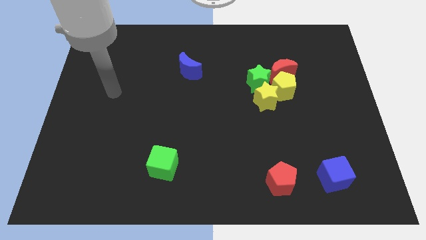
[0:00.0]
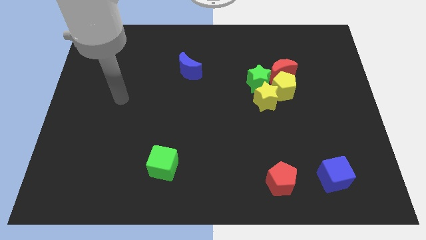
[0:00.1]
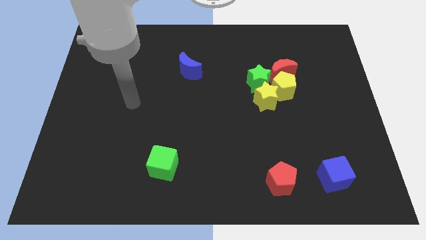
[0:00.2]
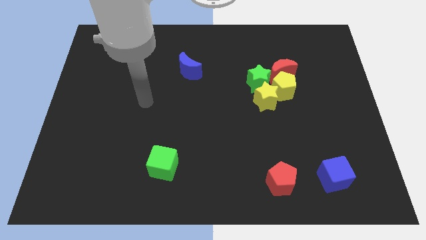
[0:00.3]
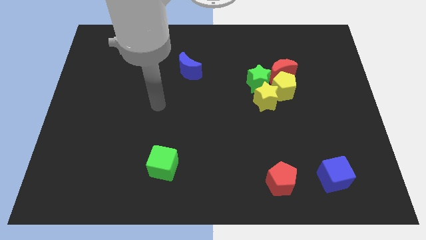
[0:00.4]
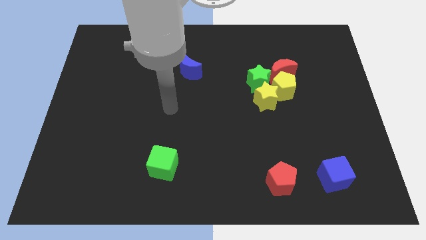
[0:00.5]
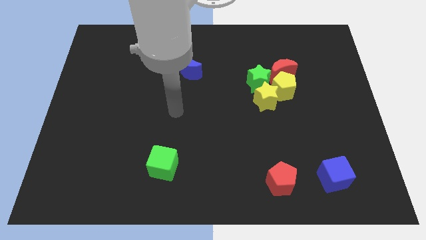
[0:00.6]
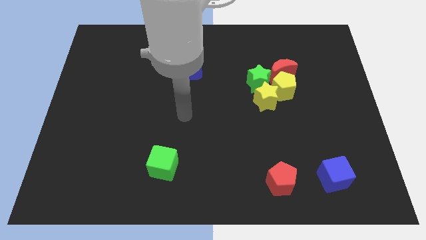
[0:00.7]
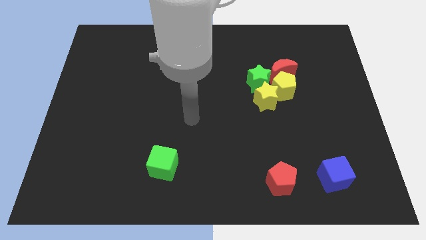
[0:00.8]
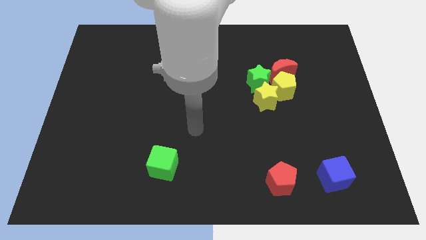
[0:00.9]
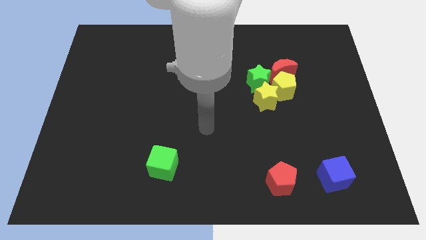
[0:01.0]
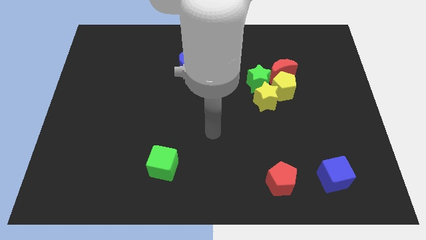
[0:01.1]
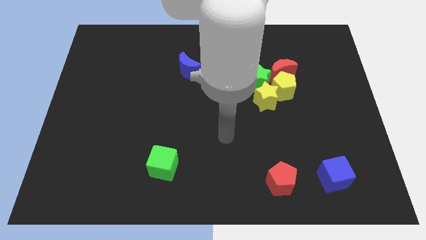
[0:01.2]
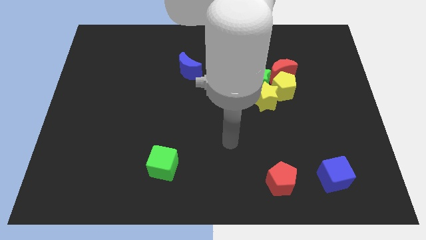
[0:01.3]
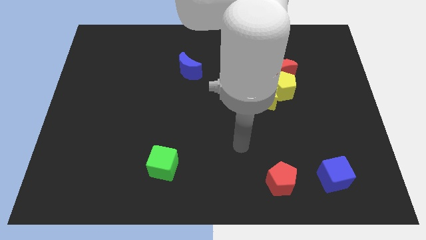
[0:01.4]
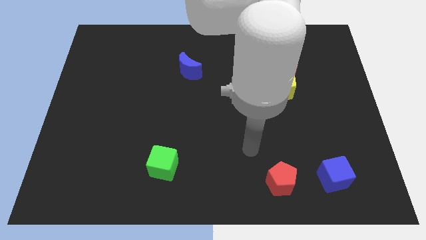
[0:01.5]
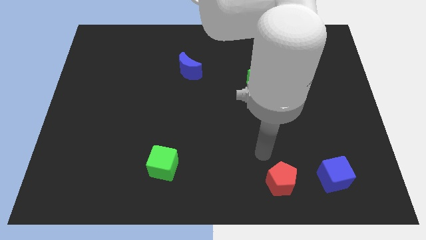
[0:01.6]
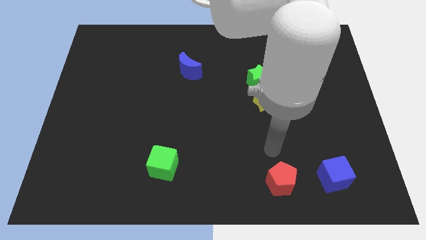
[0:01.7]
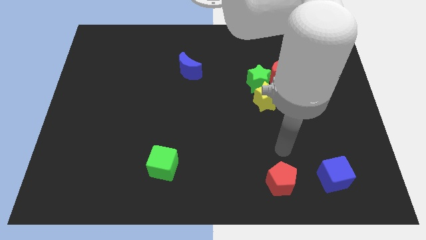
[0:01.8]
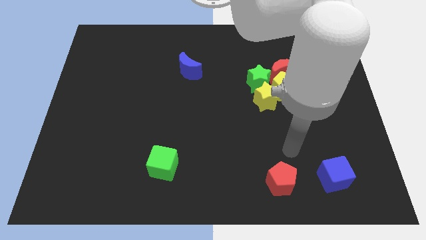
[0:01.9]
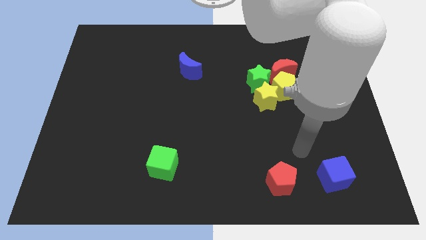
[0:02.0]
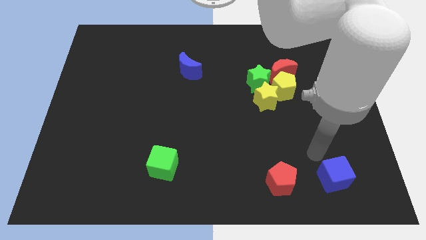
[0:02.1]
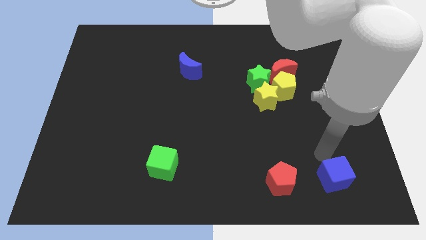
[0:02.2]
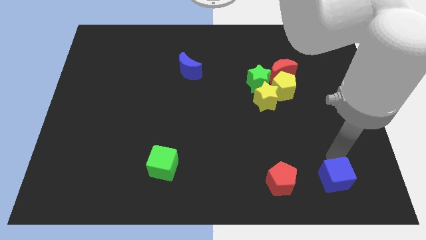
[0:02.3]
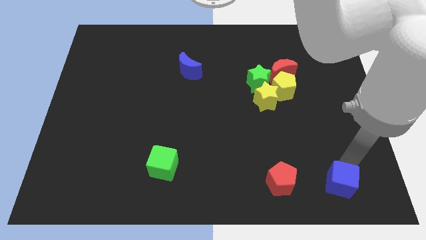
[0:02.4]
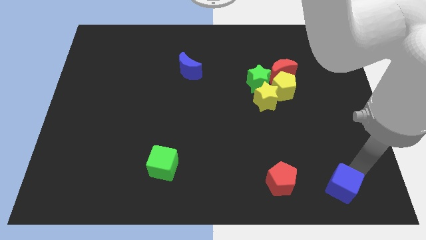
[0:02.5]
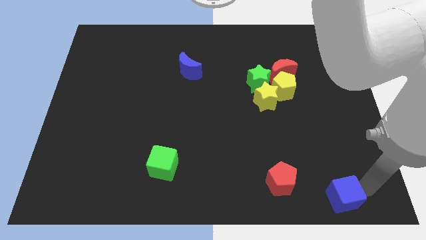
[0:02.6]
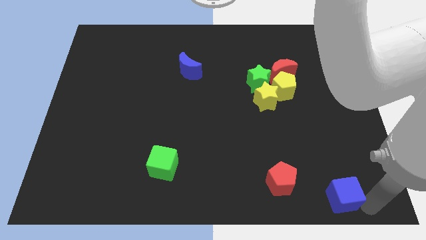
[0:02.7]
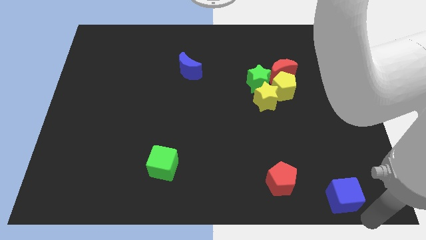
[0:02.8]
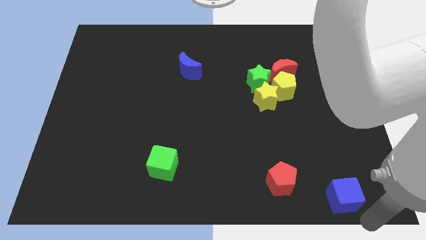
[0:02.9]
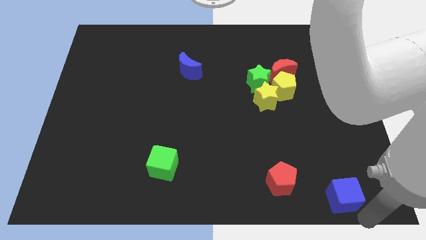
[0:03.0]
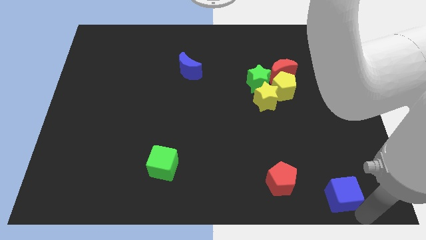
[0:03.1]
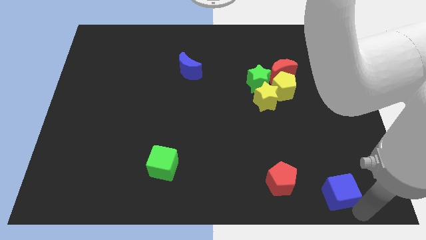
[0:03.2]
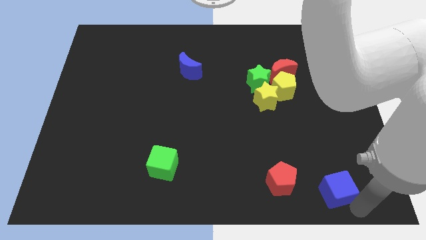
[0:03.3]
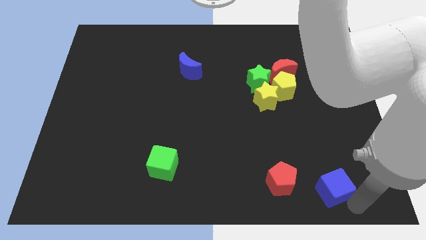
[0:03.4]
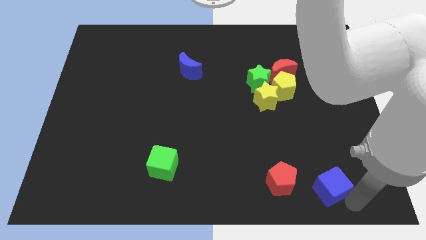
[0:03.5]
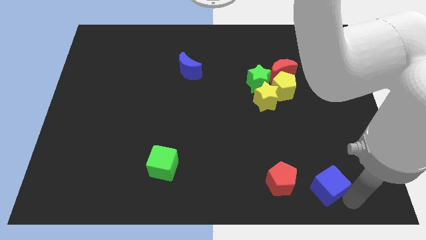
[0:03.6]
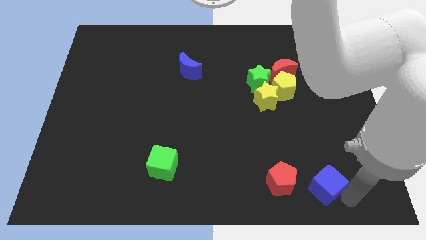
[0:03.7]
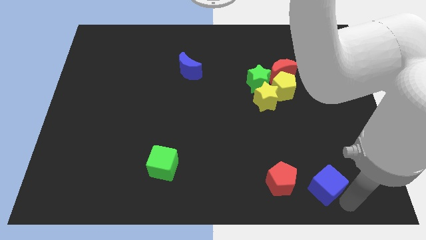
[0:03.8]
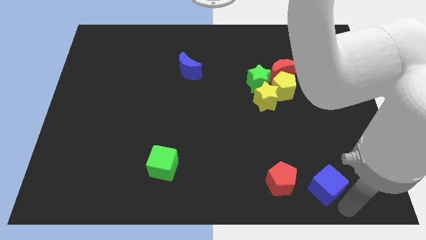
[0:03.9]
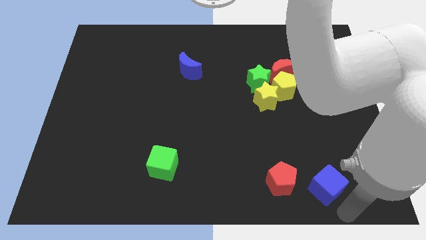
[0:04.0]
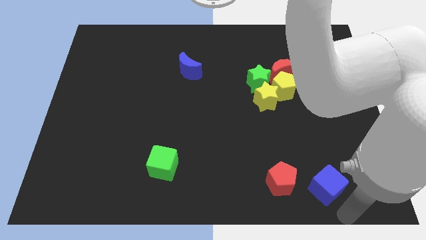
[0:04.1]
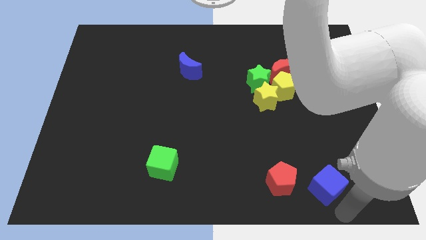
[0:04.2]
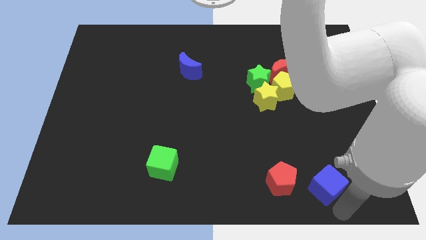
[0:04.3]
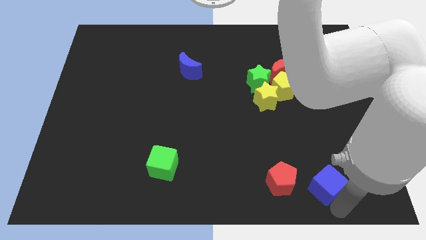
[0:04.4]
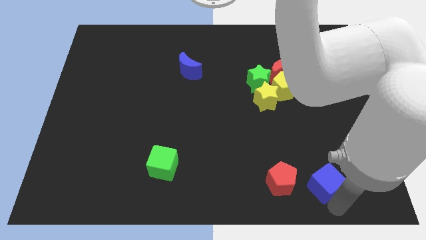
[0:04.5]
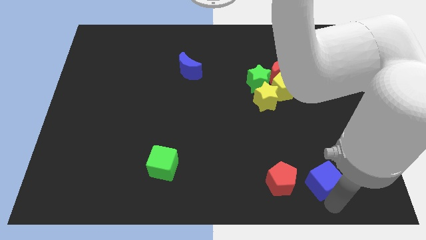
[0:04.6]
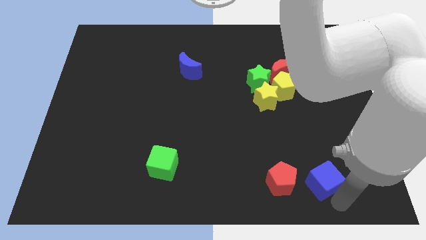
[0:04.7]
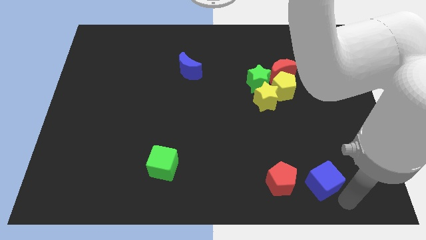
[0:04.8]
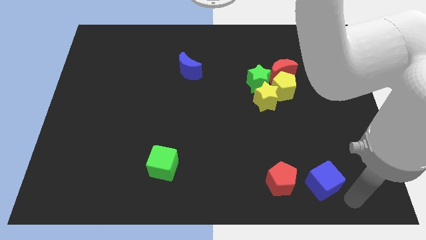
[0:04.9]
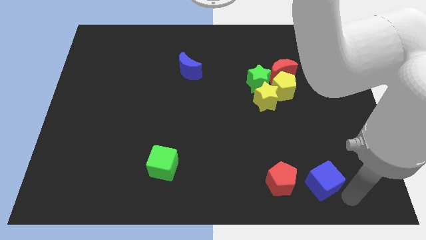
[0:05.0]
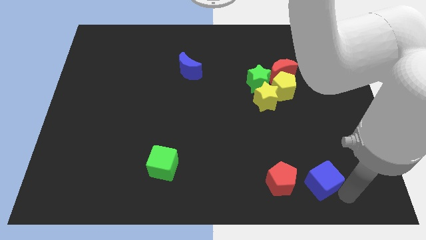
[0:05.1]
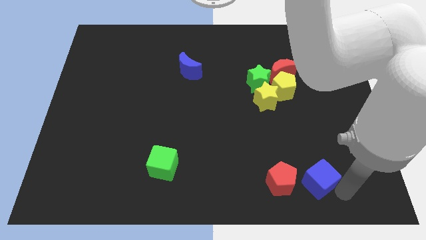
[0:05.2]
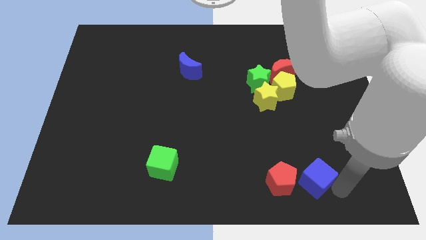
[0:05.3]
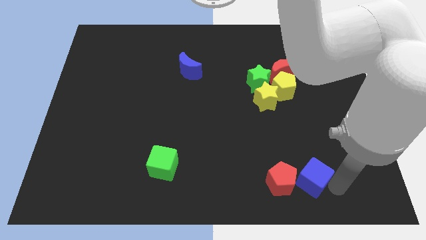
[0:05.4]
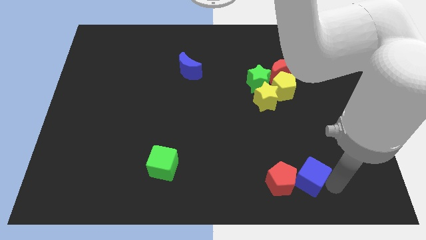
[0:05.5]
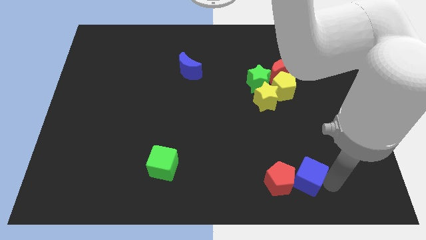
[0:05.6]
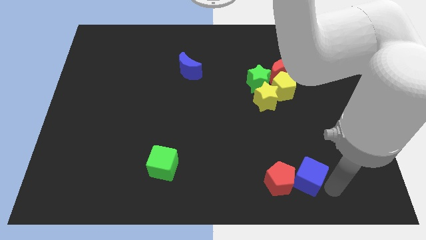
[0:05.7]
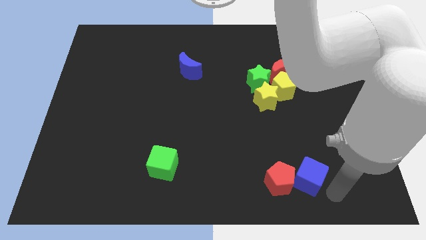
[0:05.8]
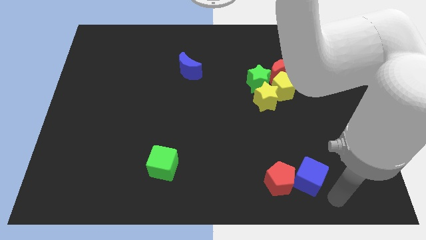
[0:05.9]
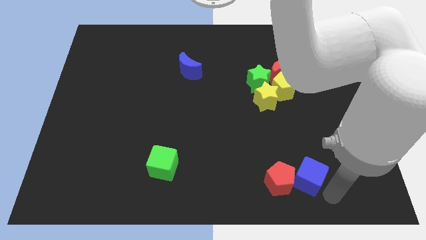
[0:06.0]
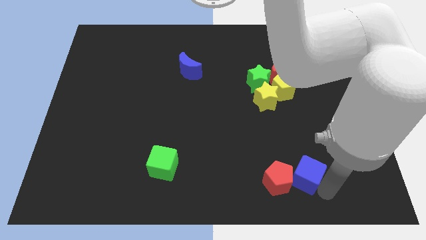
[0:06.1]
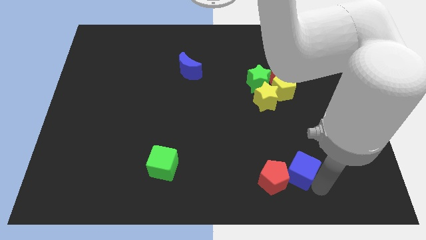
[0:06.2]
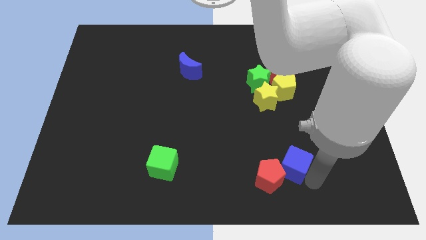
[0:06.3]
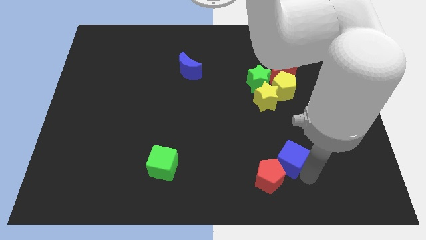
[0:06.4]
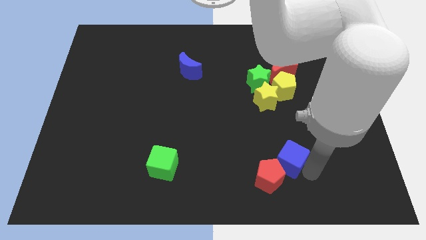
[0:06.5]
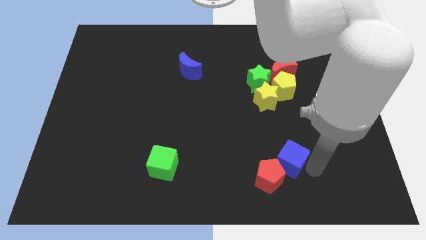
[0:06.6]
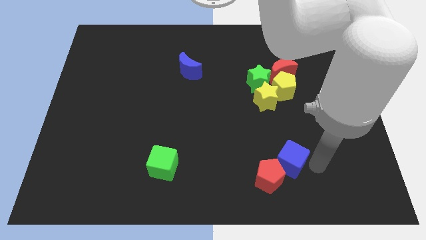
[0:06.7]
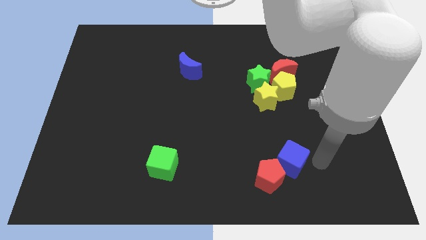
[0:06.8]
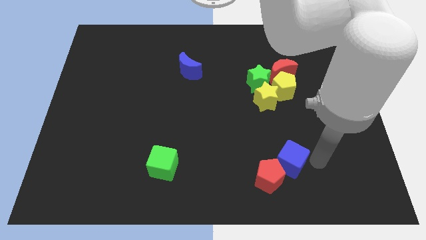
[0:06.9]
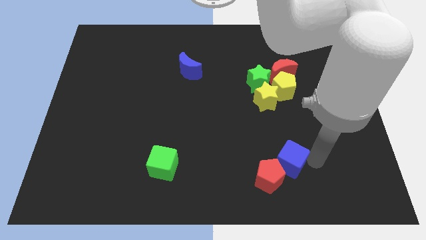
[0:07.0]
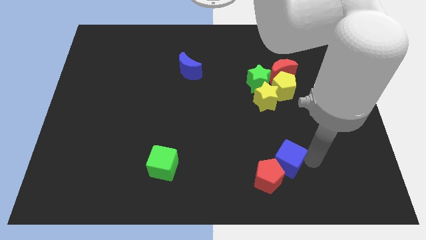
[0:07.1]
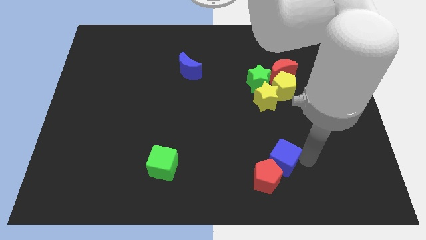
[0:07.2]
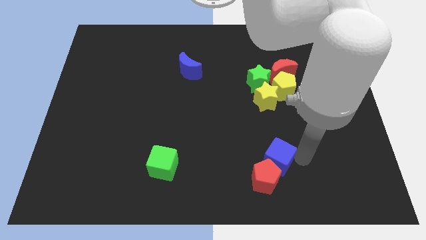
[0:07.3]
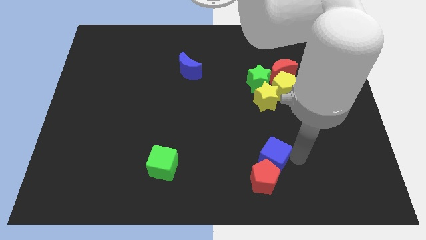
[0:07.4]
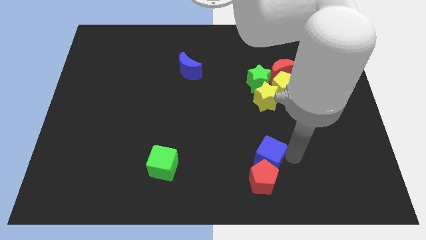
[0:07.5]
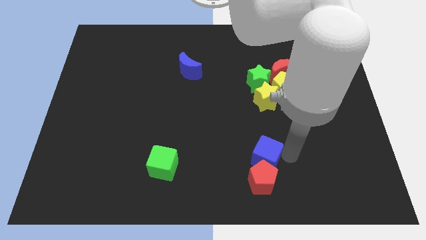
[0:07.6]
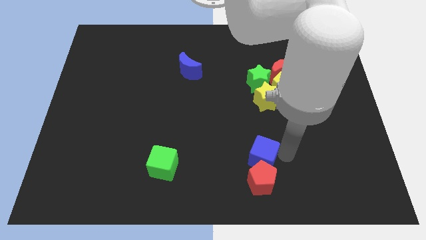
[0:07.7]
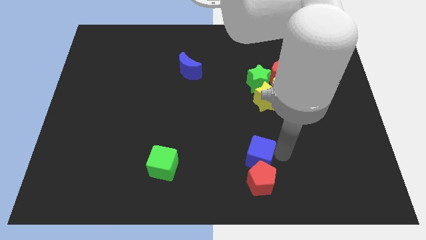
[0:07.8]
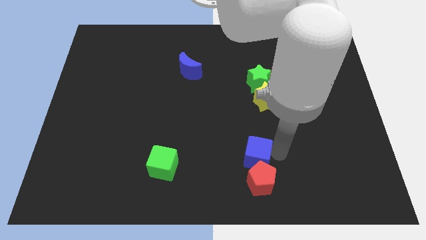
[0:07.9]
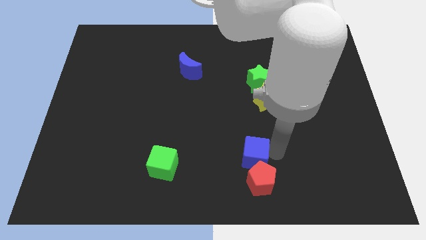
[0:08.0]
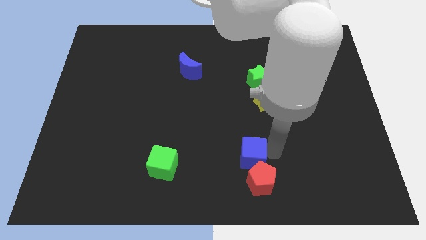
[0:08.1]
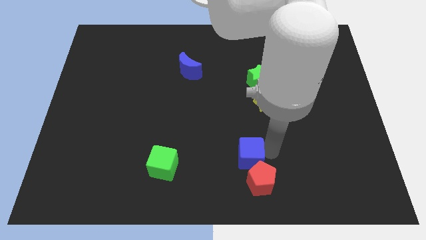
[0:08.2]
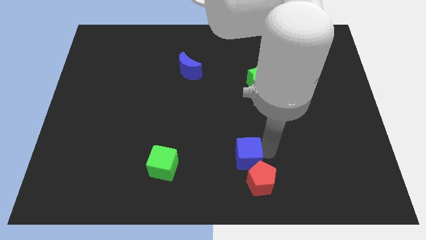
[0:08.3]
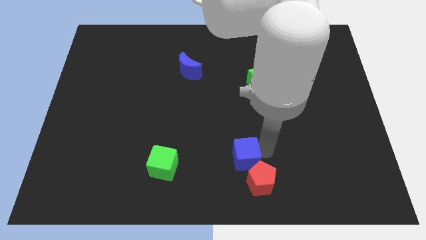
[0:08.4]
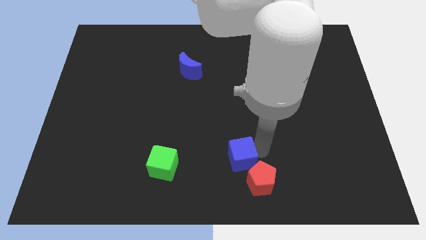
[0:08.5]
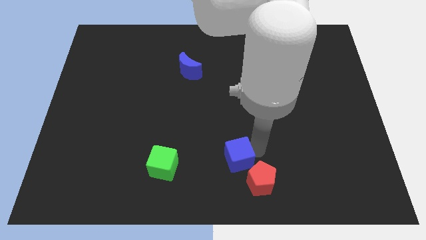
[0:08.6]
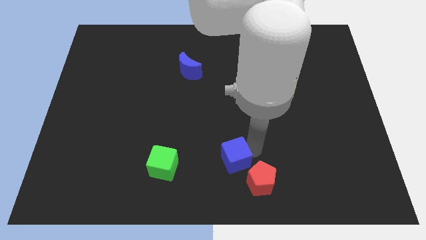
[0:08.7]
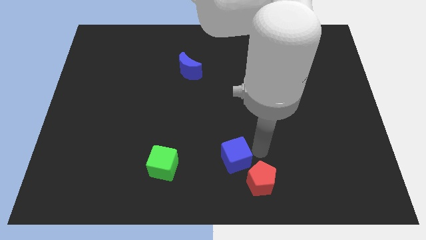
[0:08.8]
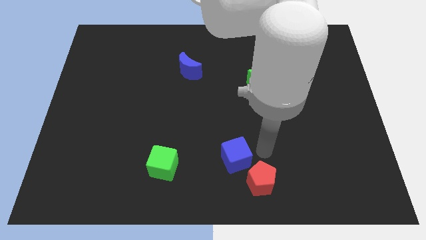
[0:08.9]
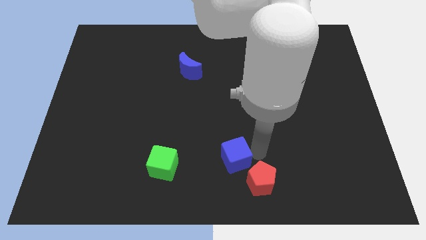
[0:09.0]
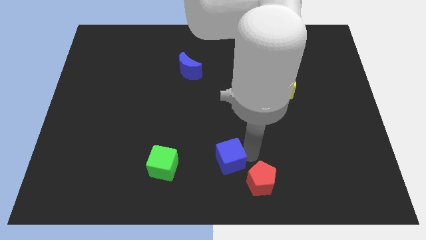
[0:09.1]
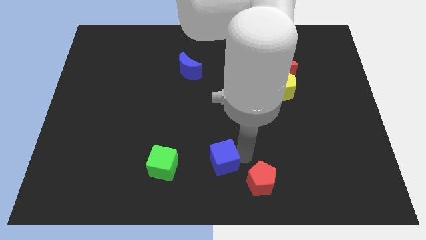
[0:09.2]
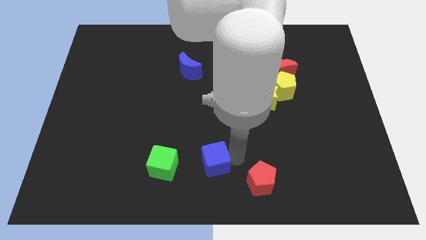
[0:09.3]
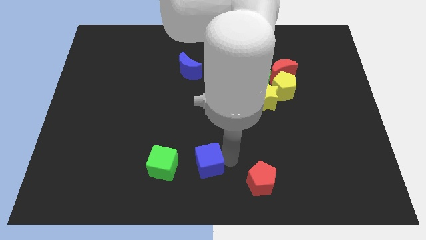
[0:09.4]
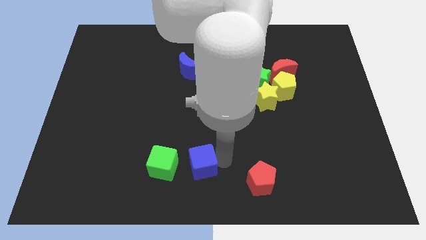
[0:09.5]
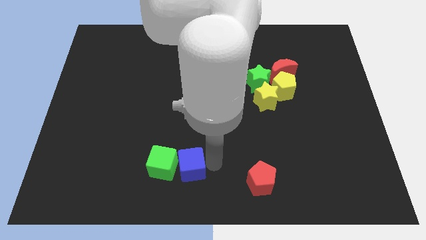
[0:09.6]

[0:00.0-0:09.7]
slide the blue cube to the green cube
